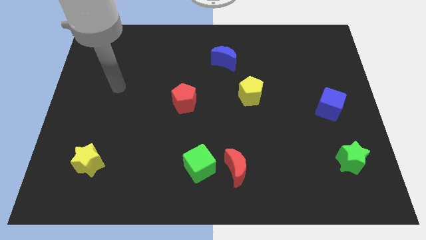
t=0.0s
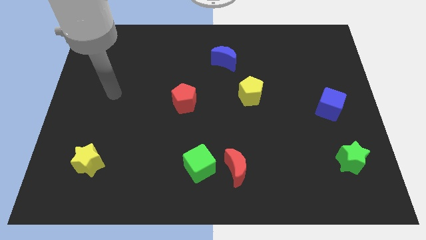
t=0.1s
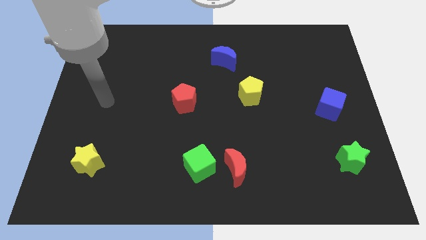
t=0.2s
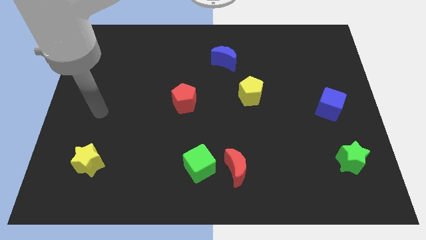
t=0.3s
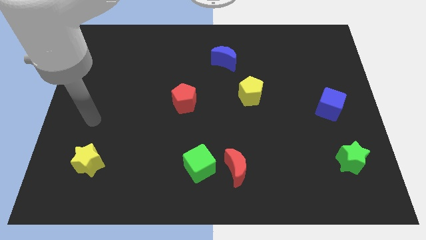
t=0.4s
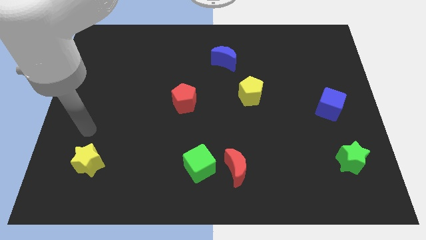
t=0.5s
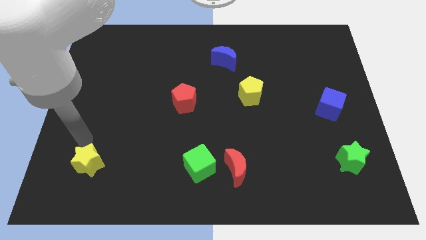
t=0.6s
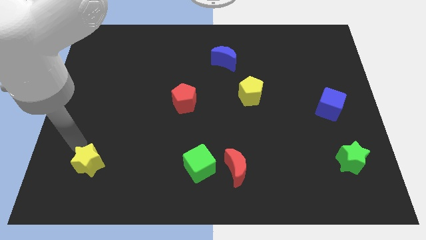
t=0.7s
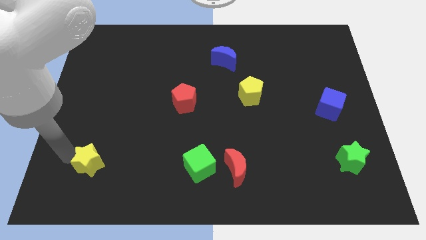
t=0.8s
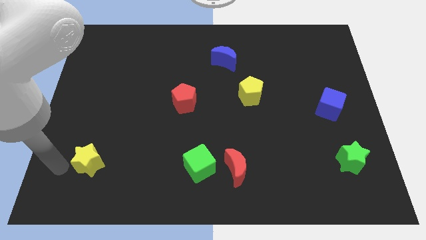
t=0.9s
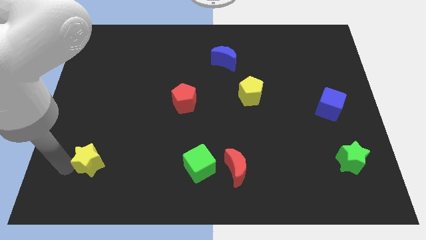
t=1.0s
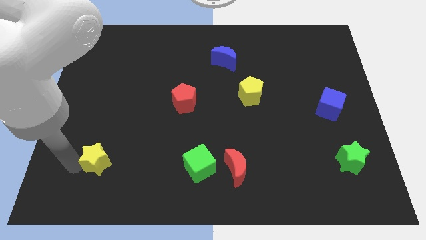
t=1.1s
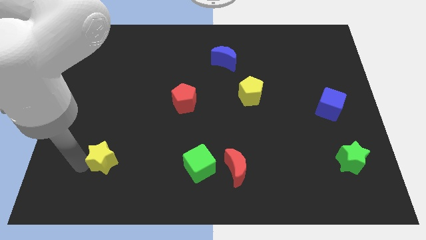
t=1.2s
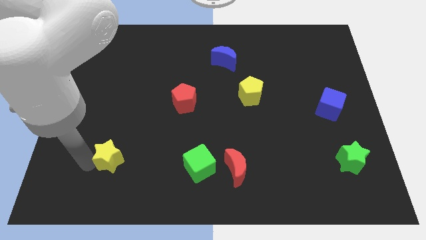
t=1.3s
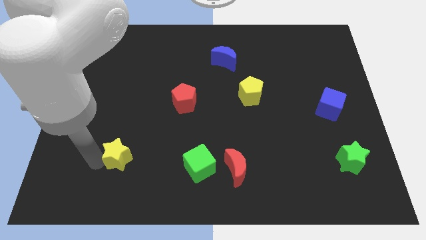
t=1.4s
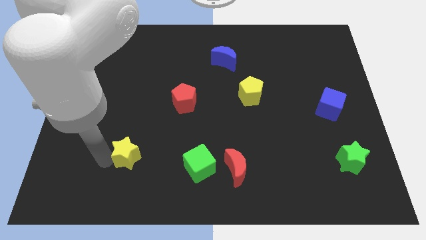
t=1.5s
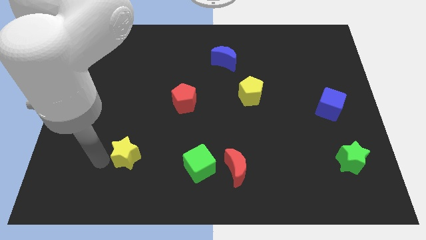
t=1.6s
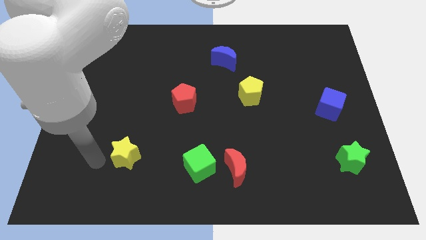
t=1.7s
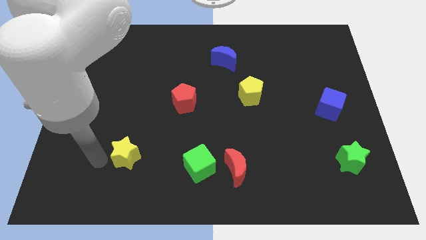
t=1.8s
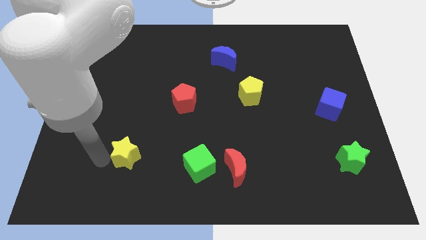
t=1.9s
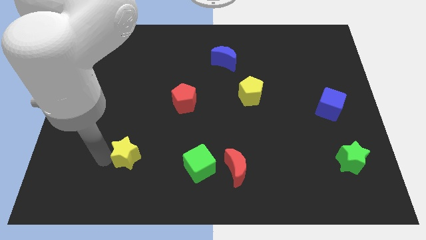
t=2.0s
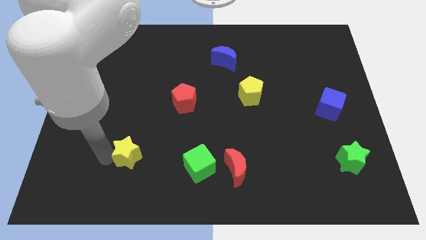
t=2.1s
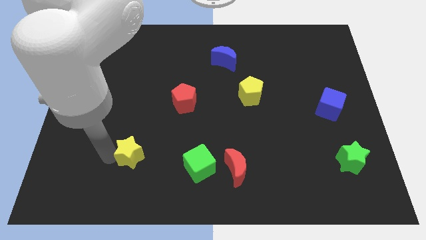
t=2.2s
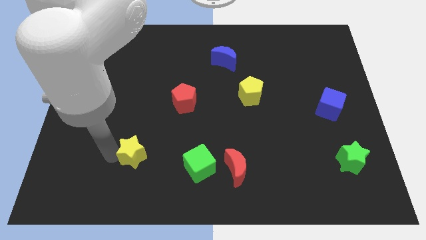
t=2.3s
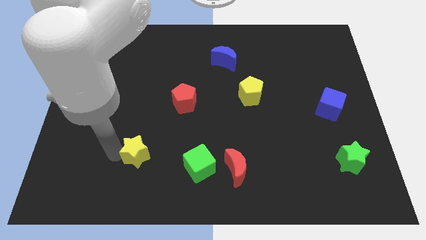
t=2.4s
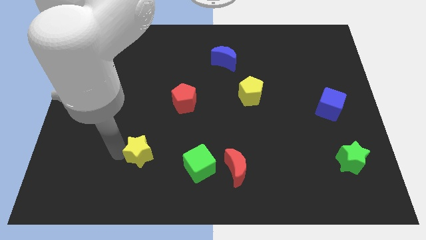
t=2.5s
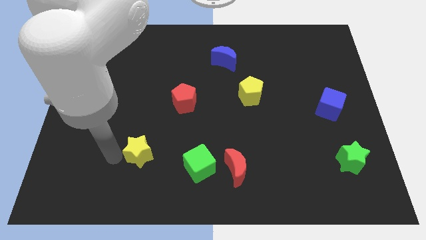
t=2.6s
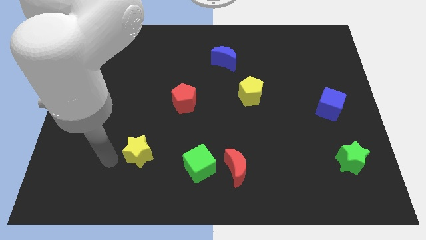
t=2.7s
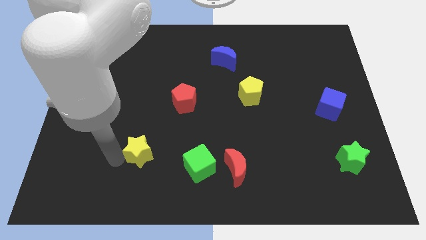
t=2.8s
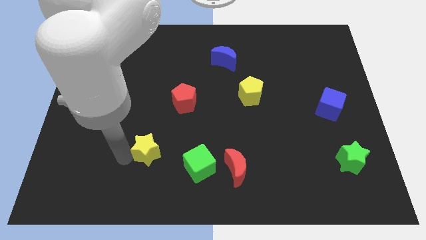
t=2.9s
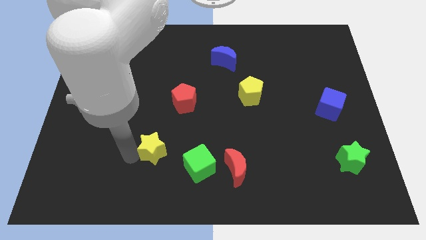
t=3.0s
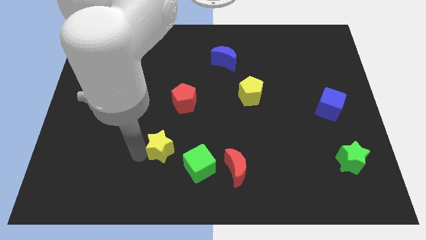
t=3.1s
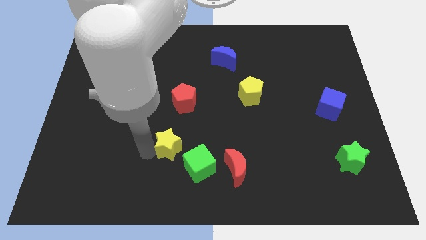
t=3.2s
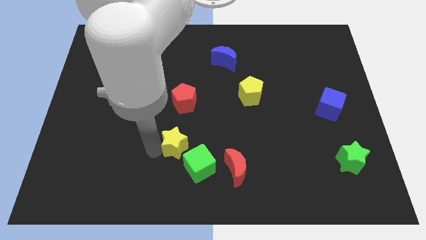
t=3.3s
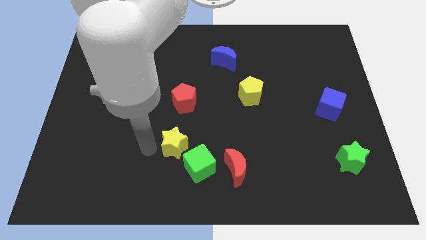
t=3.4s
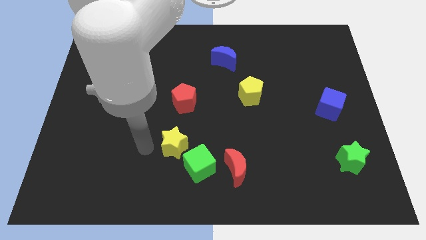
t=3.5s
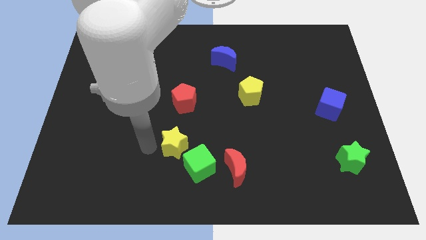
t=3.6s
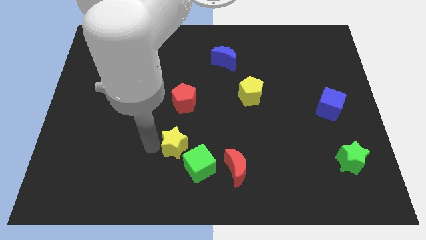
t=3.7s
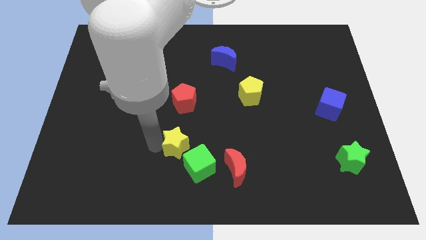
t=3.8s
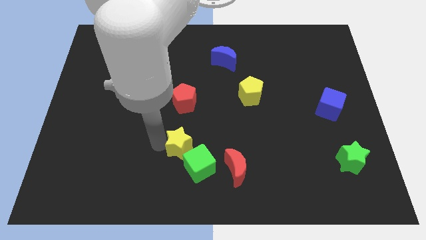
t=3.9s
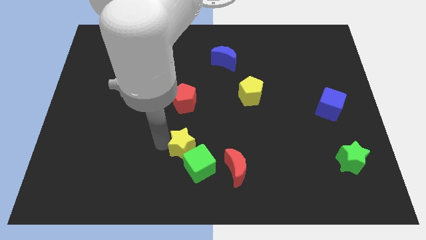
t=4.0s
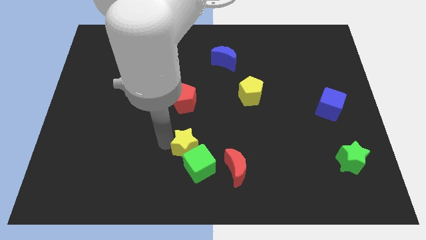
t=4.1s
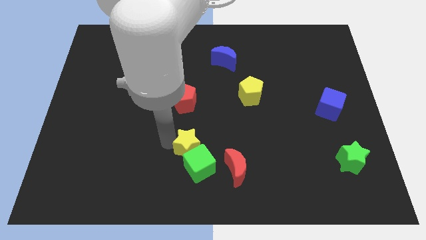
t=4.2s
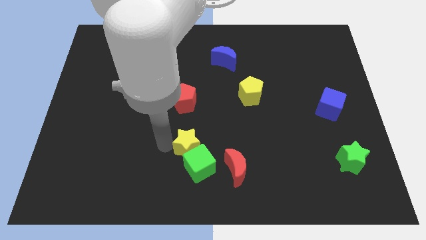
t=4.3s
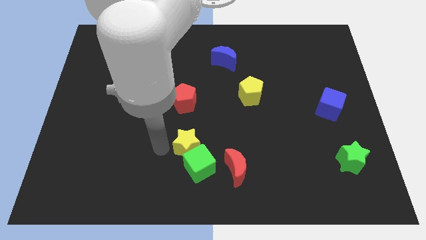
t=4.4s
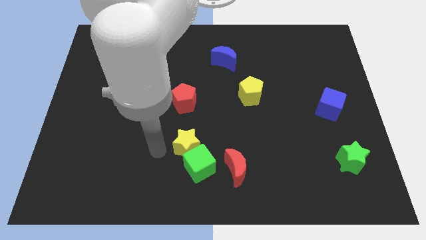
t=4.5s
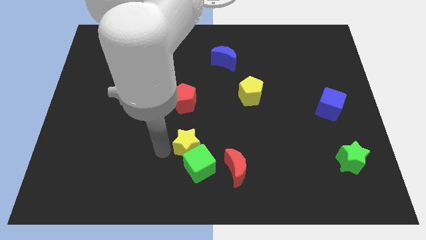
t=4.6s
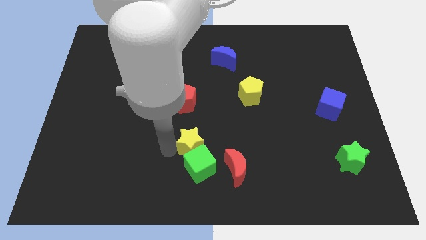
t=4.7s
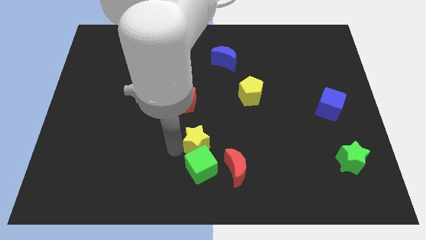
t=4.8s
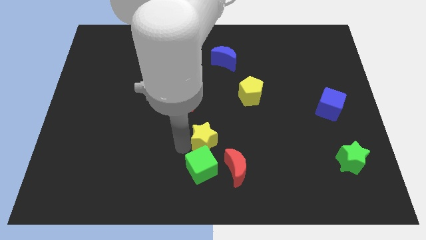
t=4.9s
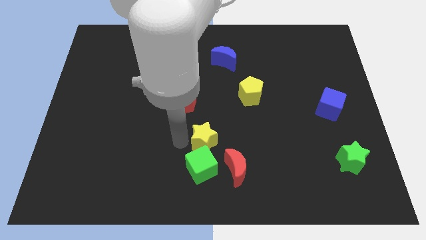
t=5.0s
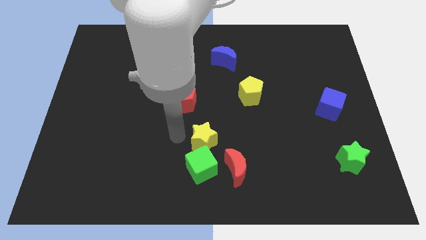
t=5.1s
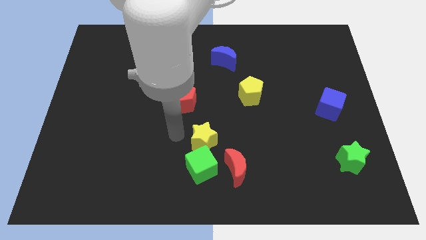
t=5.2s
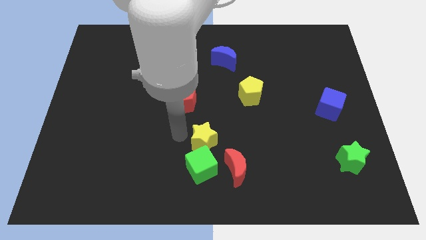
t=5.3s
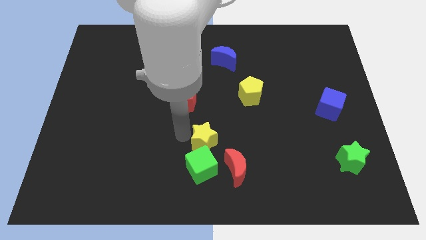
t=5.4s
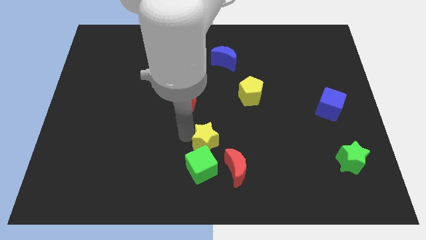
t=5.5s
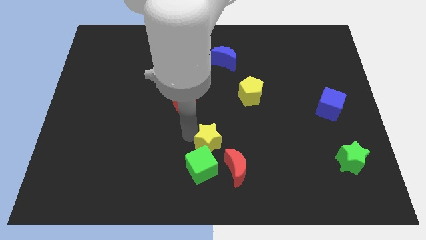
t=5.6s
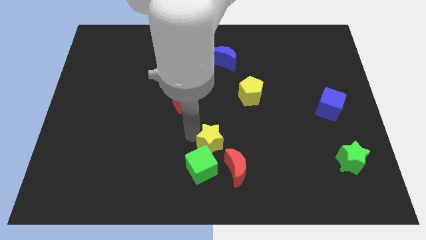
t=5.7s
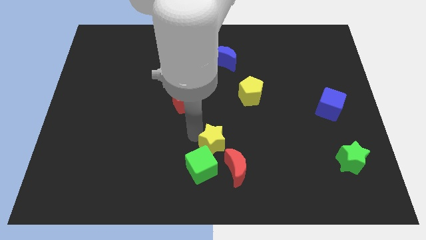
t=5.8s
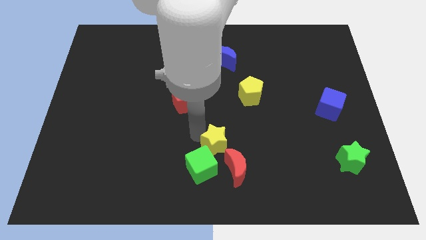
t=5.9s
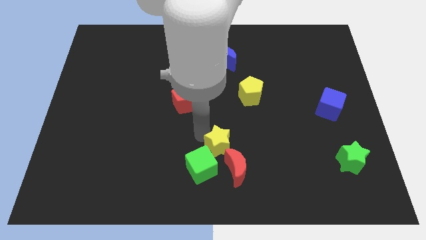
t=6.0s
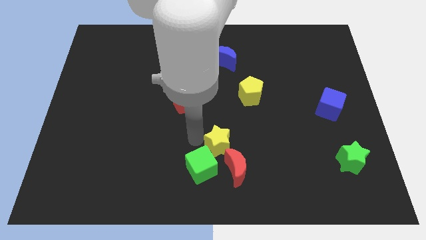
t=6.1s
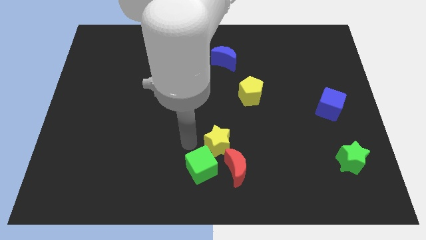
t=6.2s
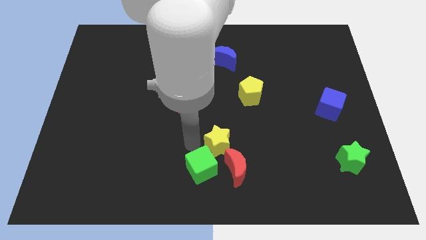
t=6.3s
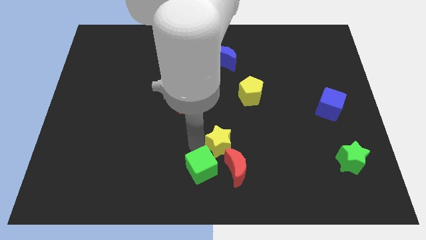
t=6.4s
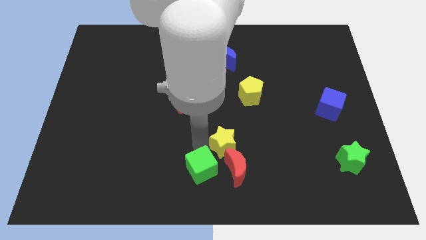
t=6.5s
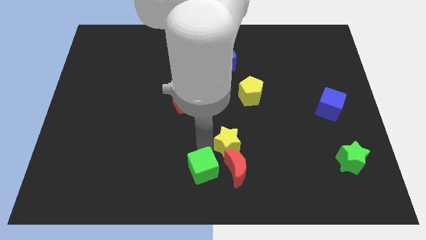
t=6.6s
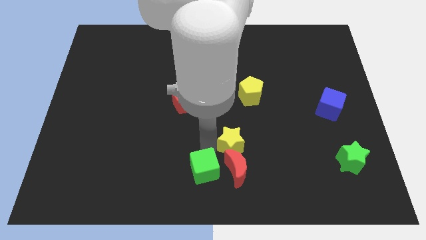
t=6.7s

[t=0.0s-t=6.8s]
push the yellow star to the top right of the red moon
